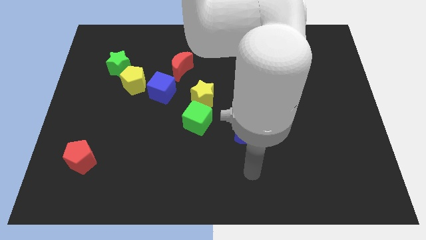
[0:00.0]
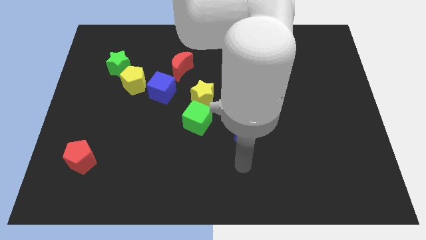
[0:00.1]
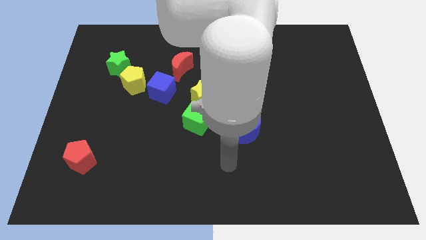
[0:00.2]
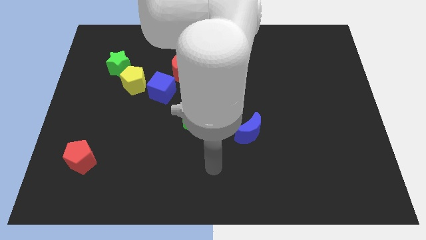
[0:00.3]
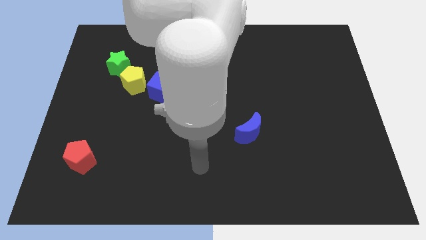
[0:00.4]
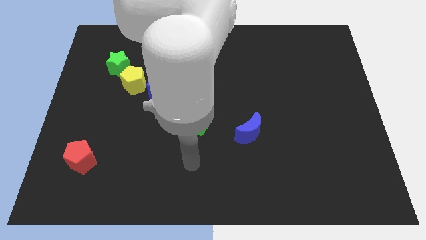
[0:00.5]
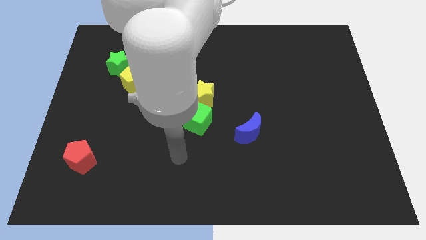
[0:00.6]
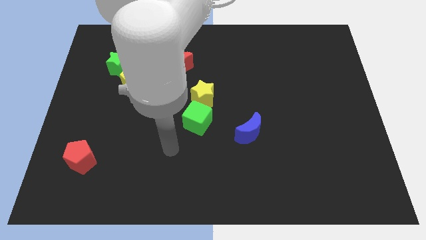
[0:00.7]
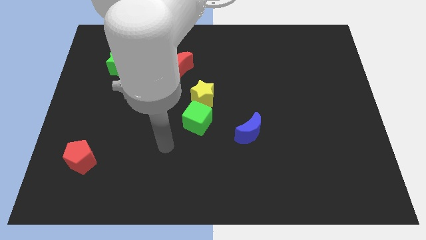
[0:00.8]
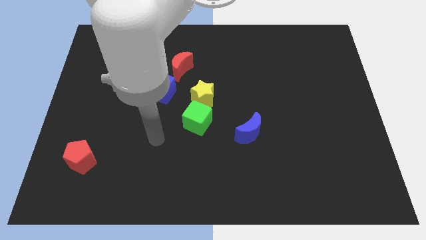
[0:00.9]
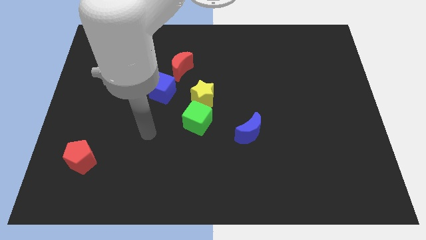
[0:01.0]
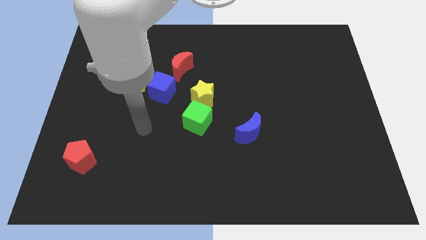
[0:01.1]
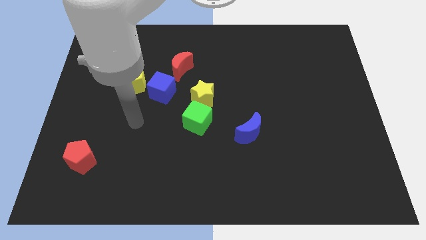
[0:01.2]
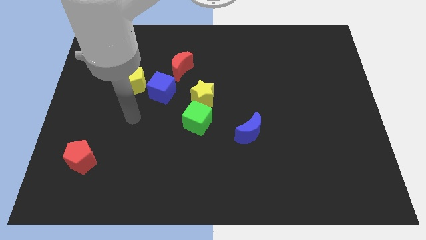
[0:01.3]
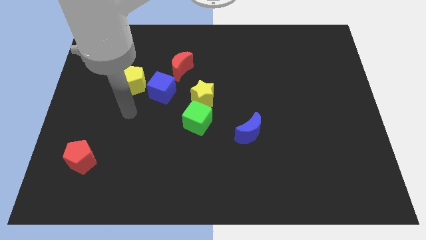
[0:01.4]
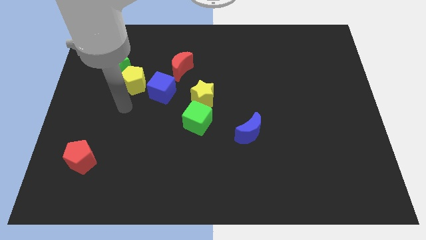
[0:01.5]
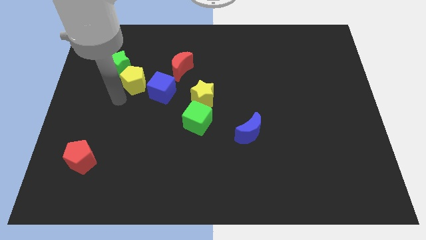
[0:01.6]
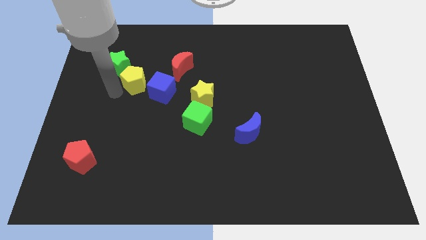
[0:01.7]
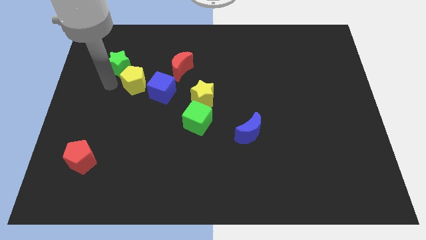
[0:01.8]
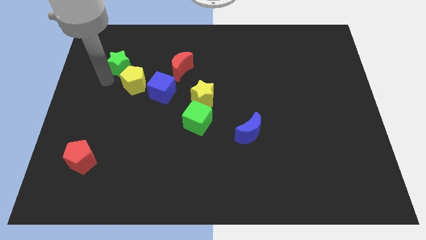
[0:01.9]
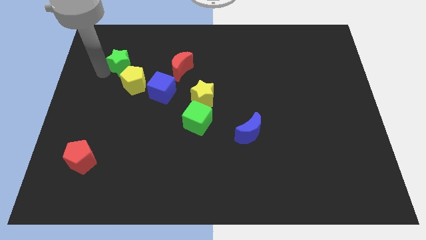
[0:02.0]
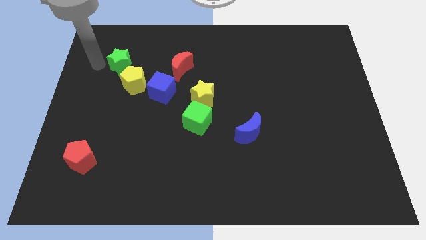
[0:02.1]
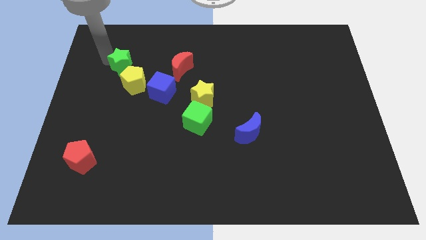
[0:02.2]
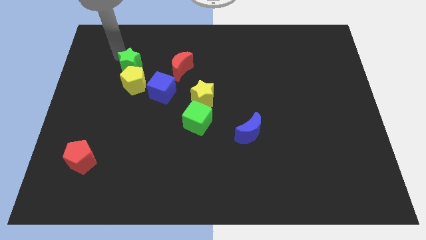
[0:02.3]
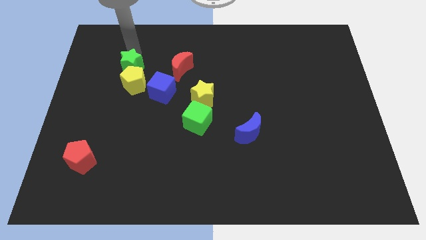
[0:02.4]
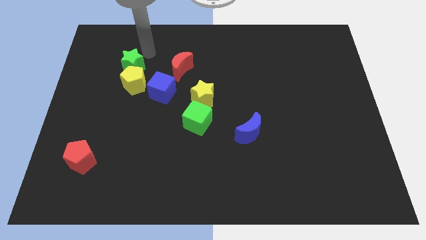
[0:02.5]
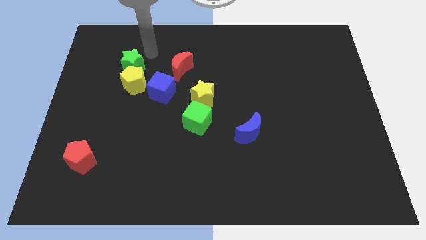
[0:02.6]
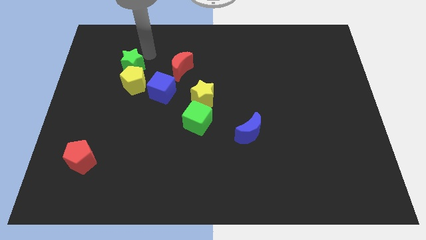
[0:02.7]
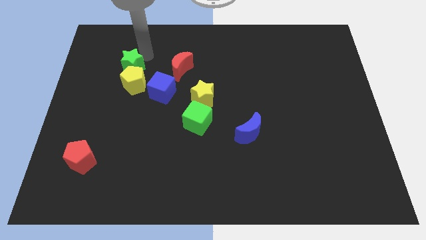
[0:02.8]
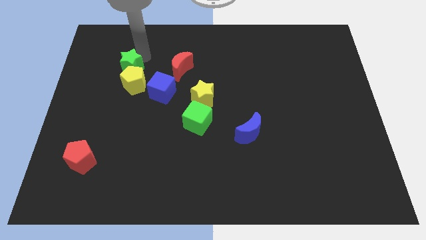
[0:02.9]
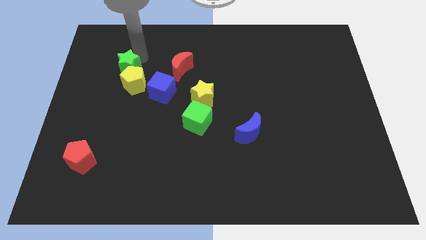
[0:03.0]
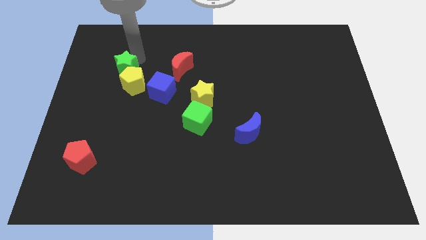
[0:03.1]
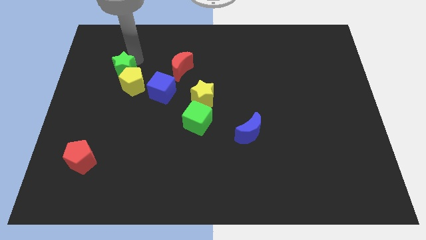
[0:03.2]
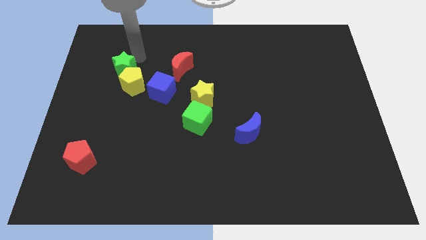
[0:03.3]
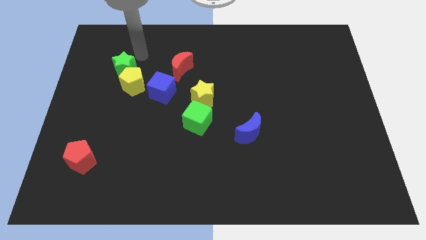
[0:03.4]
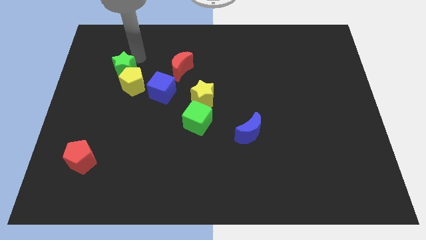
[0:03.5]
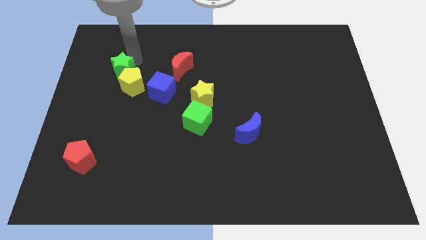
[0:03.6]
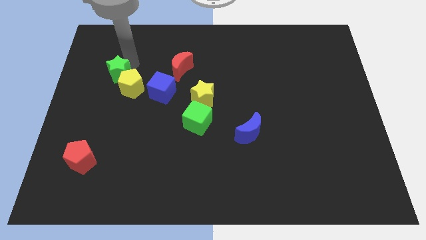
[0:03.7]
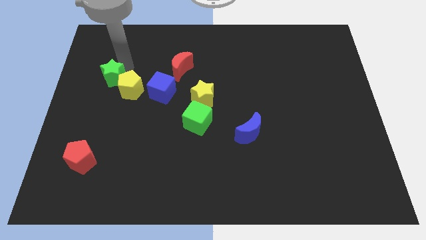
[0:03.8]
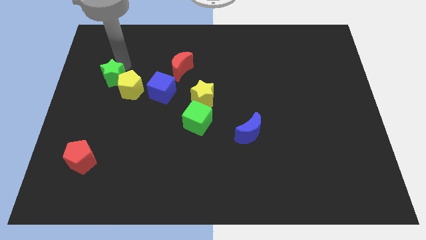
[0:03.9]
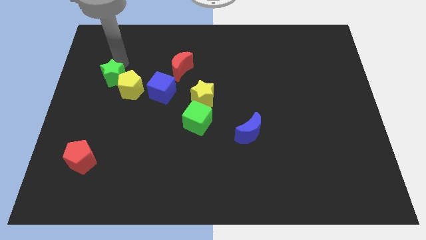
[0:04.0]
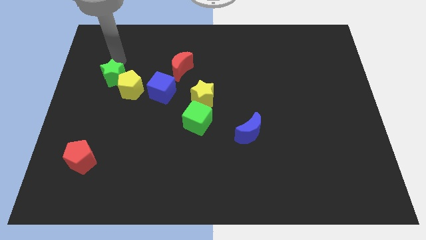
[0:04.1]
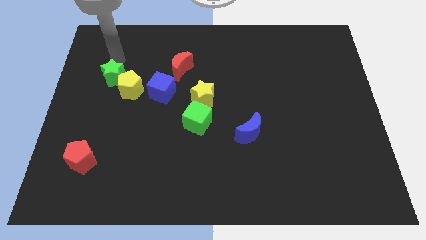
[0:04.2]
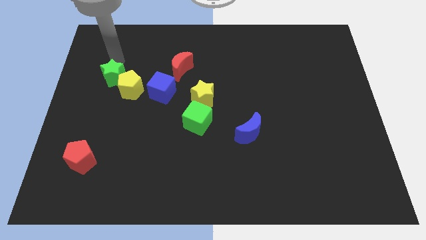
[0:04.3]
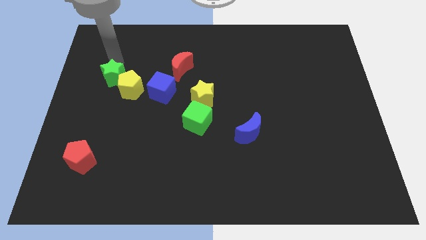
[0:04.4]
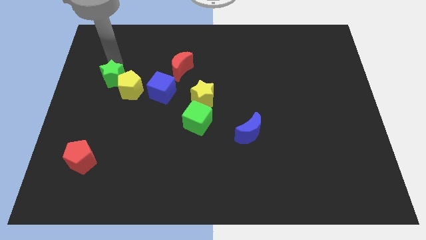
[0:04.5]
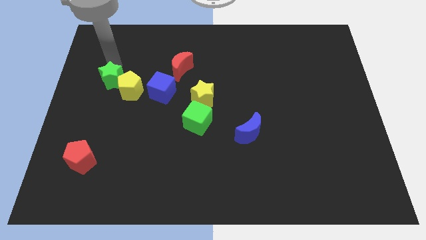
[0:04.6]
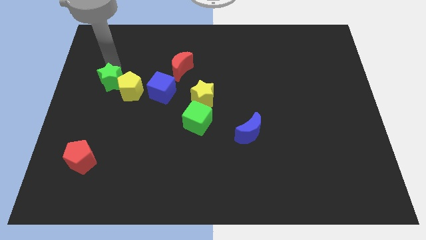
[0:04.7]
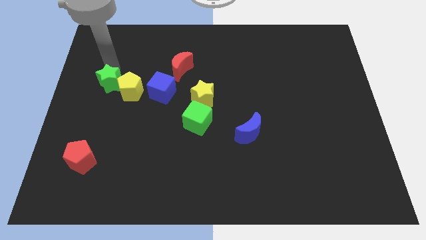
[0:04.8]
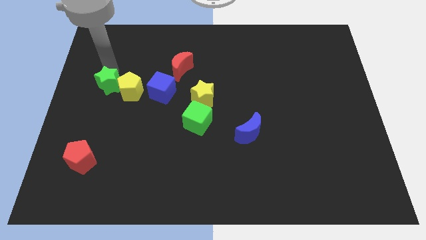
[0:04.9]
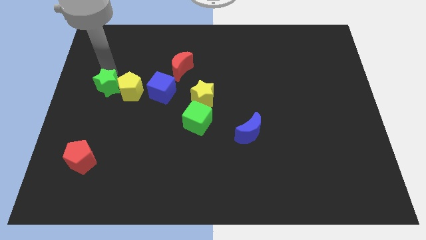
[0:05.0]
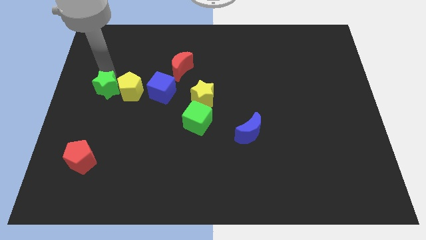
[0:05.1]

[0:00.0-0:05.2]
slightly slide the green star down

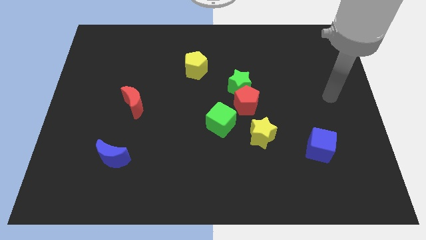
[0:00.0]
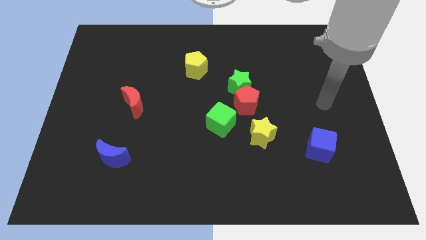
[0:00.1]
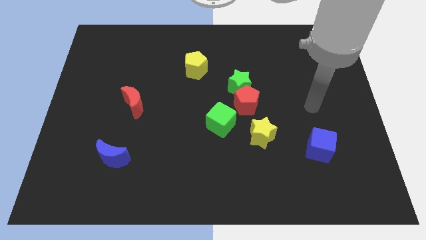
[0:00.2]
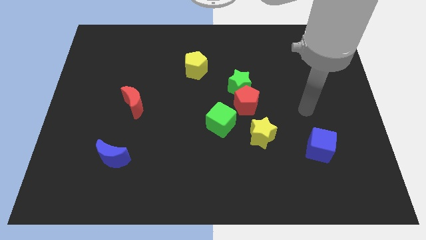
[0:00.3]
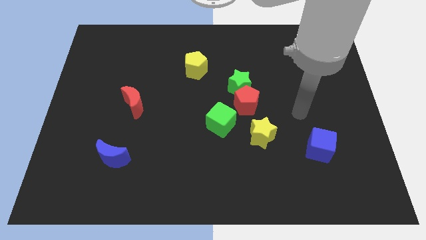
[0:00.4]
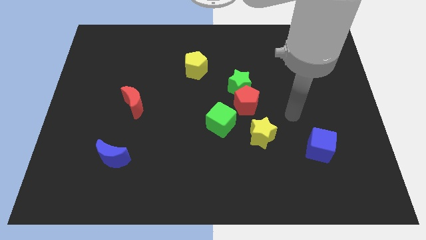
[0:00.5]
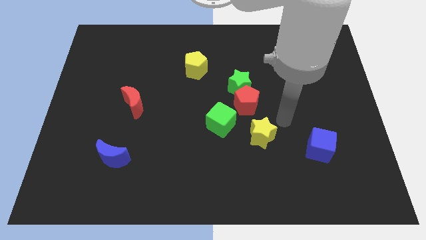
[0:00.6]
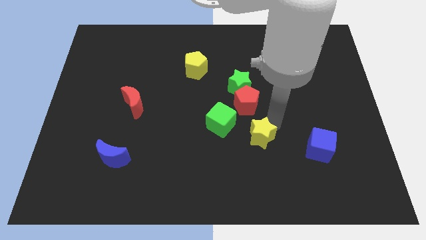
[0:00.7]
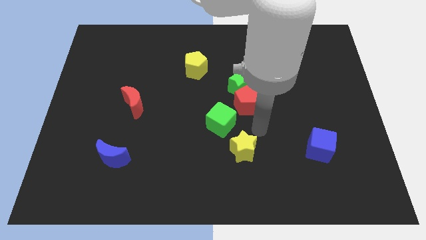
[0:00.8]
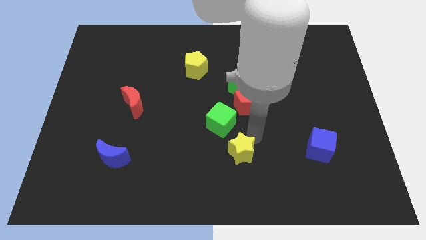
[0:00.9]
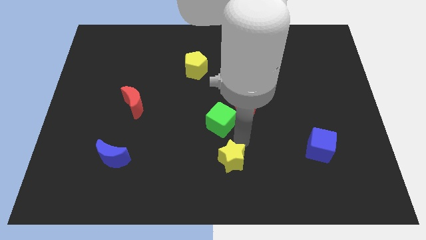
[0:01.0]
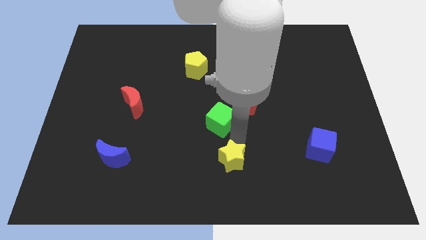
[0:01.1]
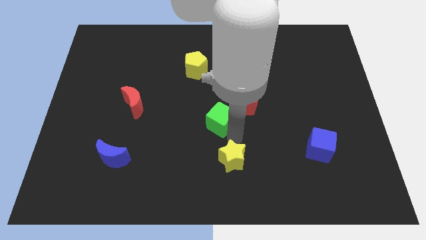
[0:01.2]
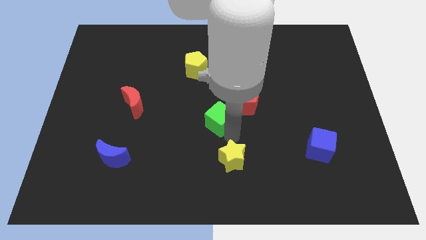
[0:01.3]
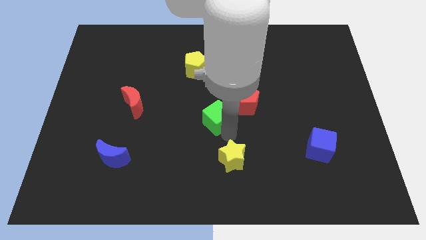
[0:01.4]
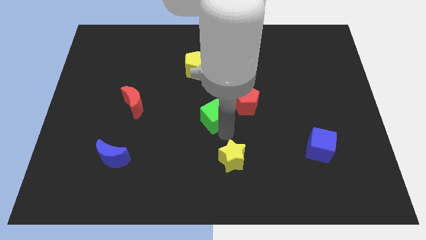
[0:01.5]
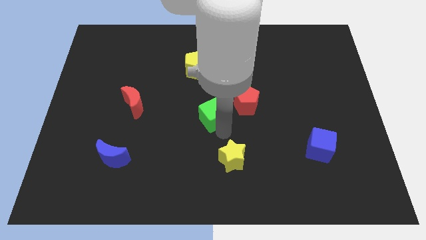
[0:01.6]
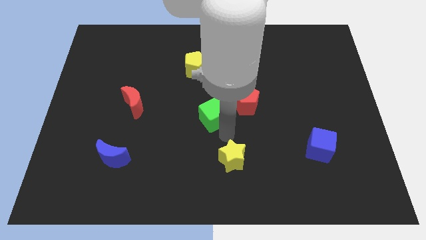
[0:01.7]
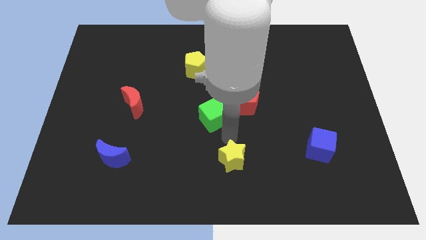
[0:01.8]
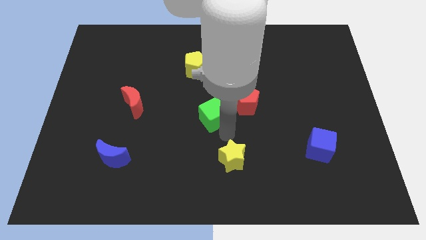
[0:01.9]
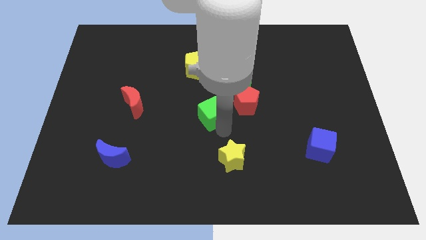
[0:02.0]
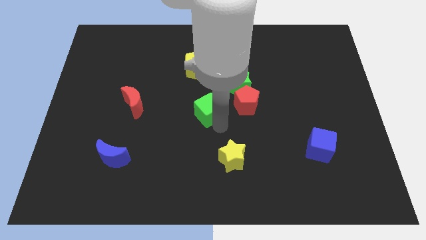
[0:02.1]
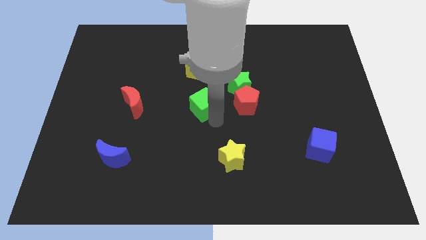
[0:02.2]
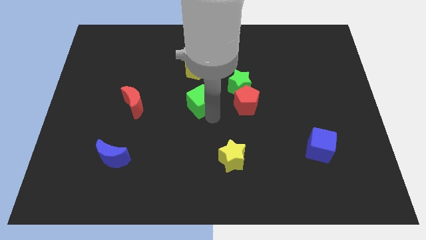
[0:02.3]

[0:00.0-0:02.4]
slightly slide the green cube diagonally up and left

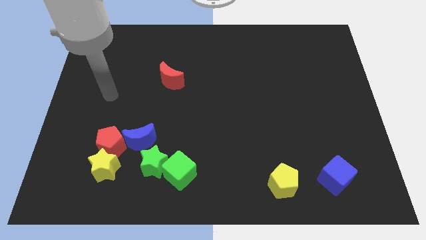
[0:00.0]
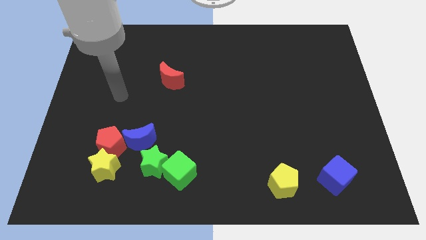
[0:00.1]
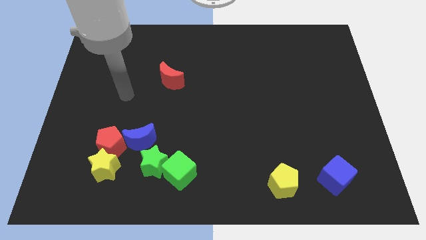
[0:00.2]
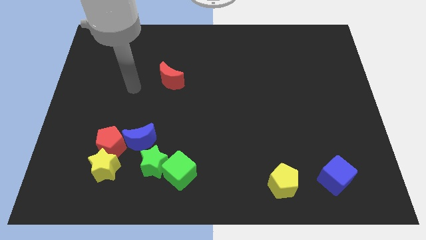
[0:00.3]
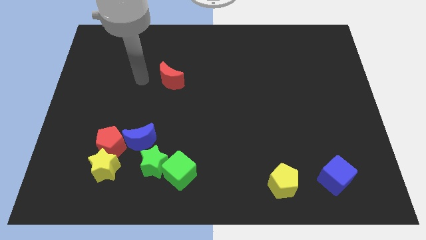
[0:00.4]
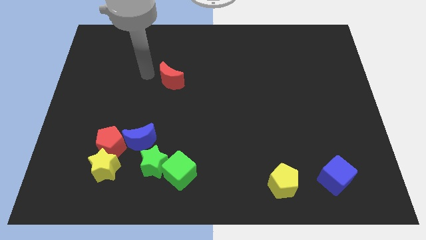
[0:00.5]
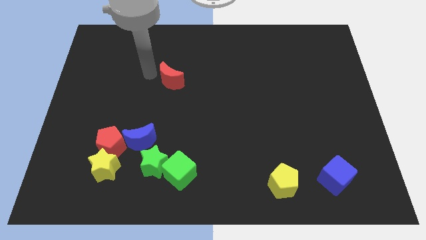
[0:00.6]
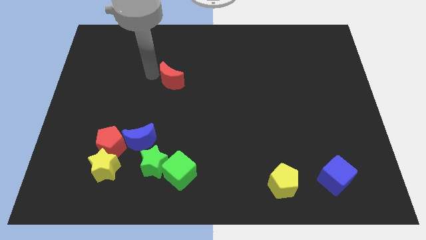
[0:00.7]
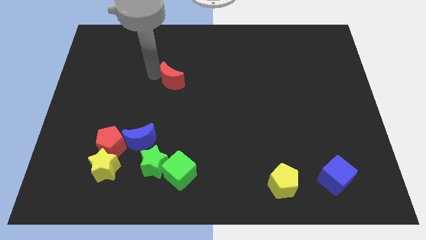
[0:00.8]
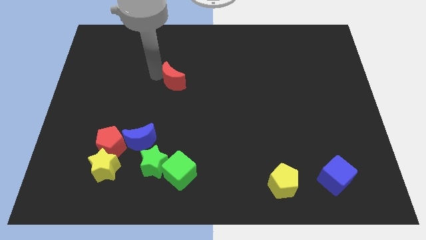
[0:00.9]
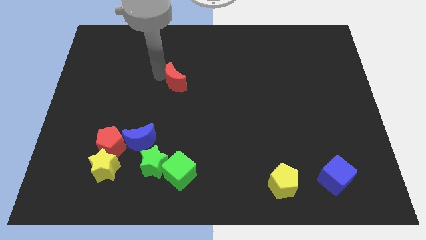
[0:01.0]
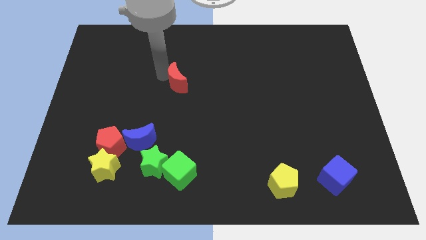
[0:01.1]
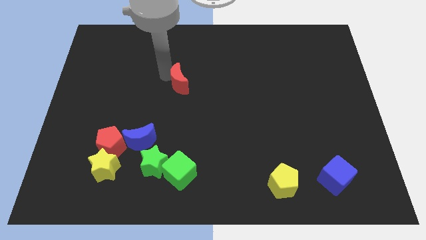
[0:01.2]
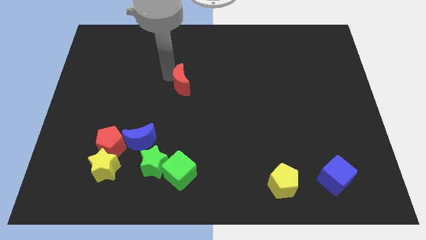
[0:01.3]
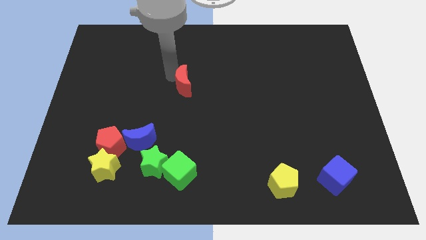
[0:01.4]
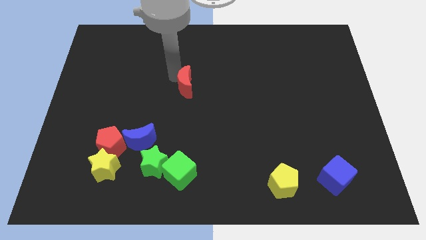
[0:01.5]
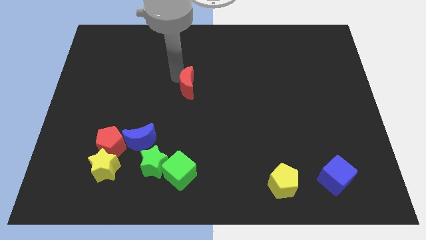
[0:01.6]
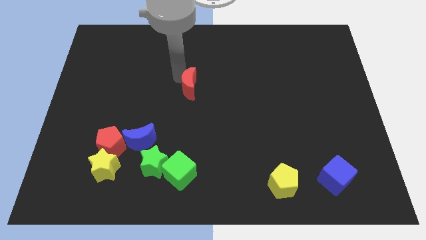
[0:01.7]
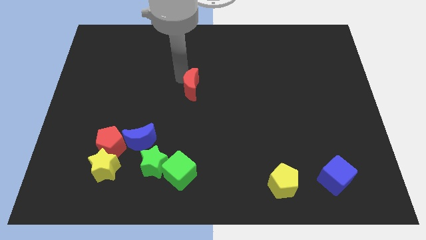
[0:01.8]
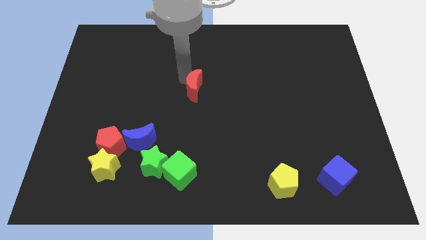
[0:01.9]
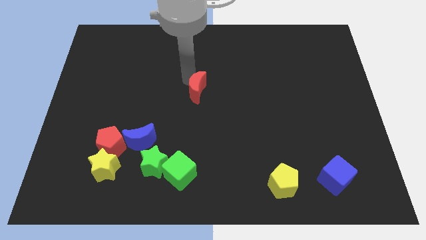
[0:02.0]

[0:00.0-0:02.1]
push the red moon somewhat downwards and then to the right
